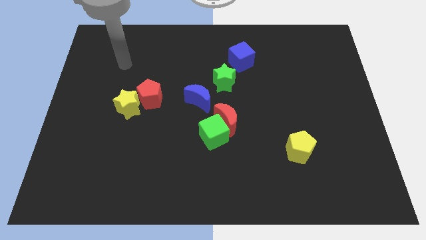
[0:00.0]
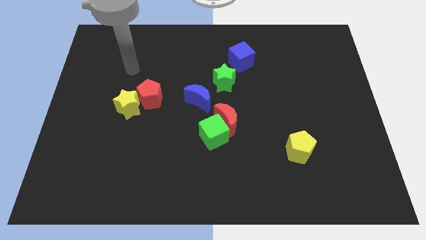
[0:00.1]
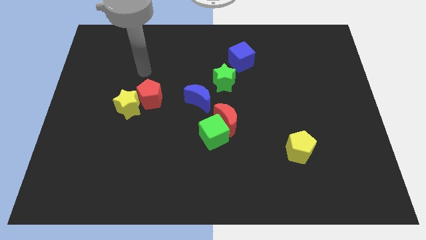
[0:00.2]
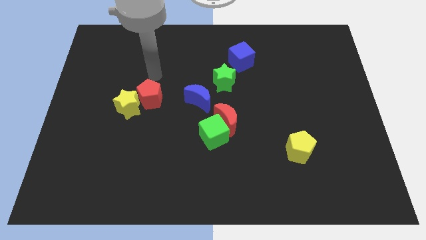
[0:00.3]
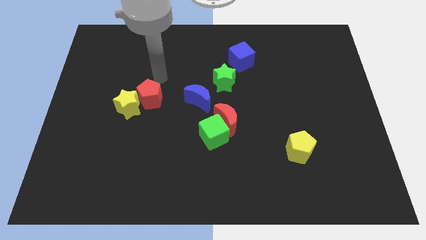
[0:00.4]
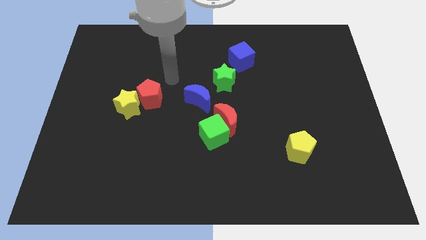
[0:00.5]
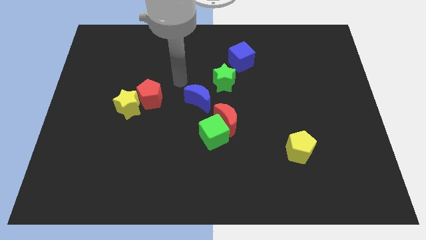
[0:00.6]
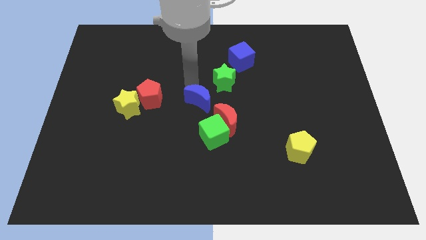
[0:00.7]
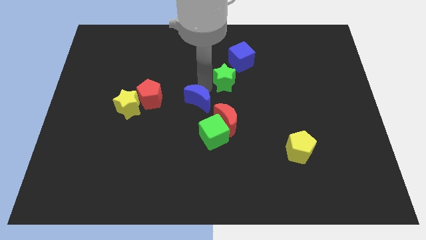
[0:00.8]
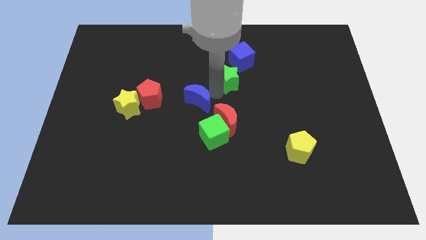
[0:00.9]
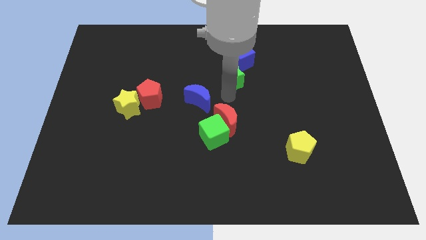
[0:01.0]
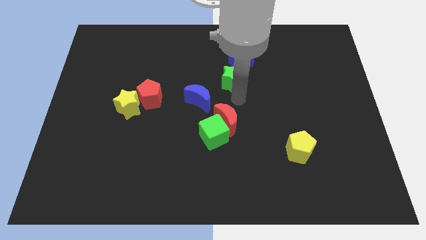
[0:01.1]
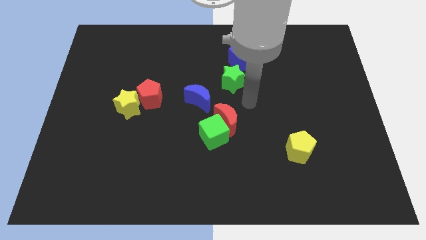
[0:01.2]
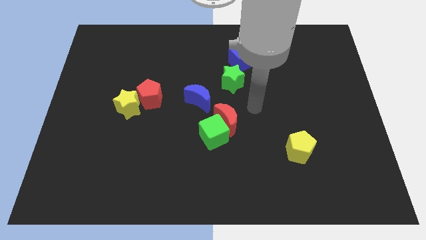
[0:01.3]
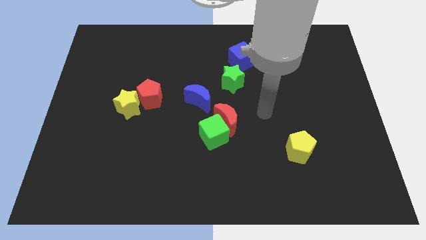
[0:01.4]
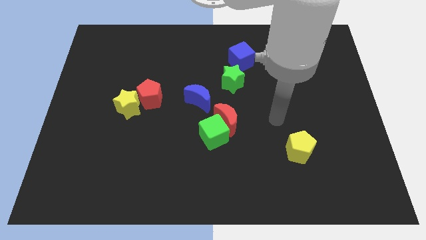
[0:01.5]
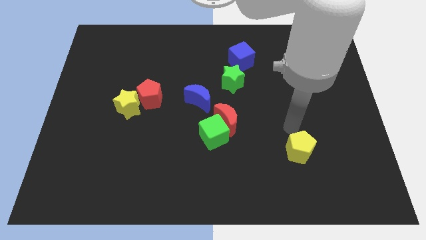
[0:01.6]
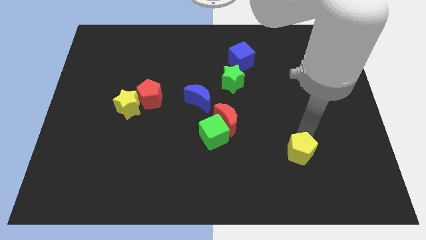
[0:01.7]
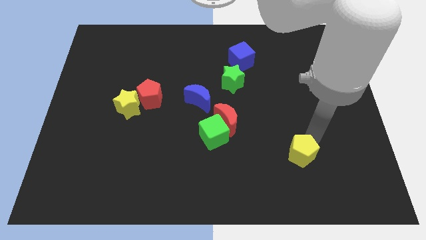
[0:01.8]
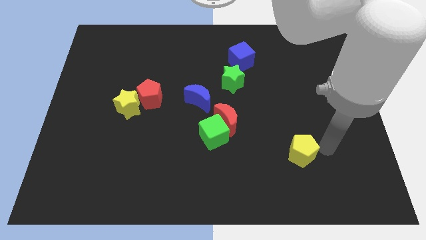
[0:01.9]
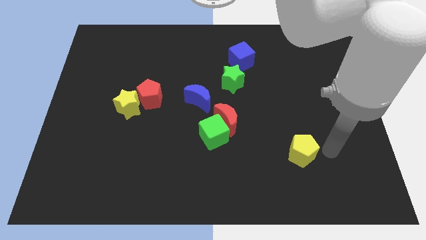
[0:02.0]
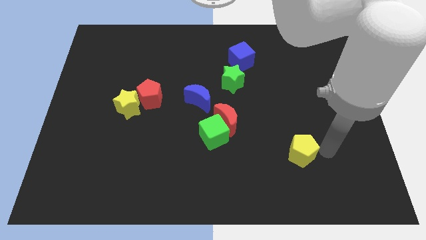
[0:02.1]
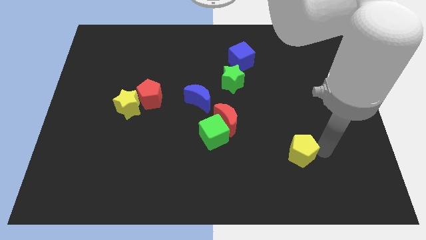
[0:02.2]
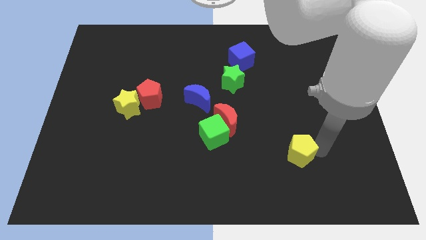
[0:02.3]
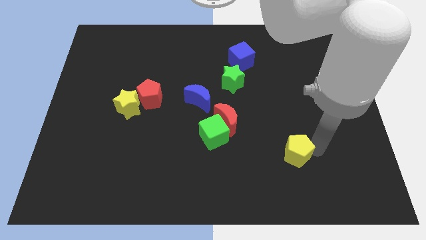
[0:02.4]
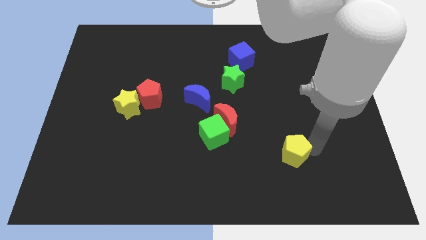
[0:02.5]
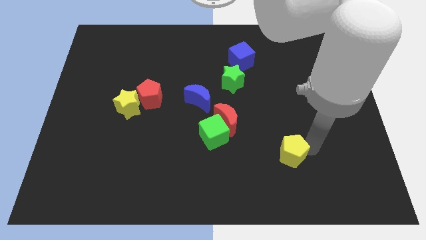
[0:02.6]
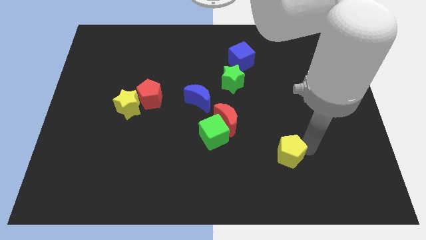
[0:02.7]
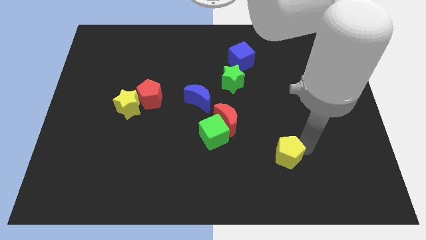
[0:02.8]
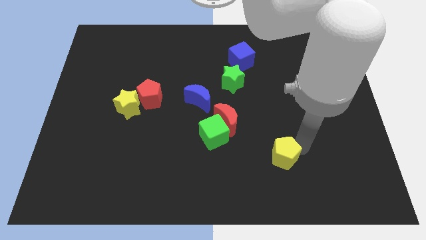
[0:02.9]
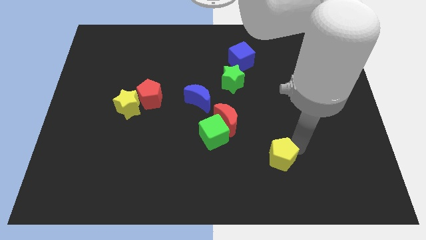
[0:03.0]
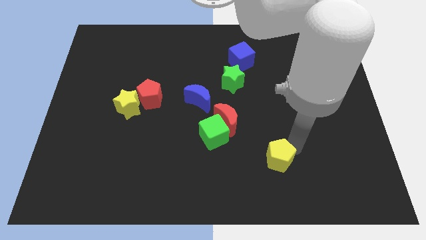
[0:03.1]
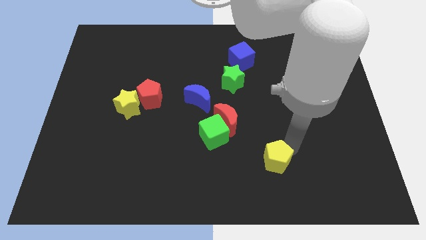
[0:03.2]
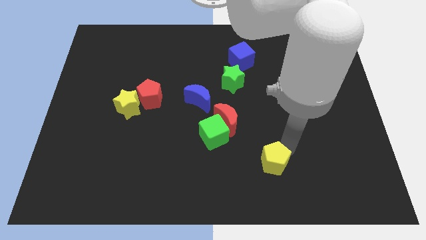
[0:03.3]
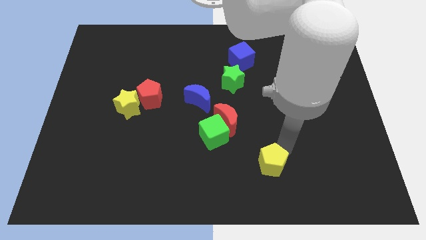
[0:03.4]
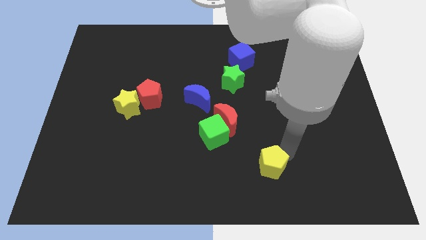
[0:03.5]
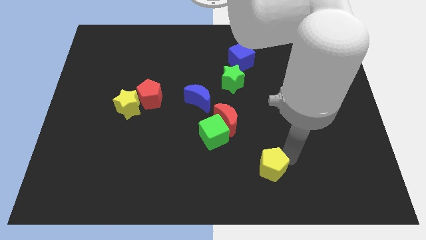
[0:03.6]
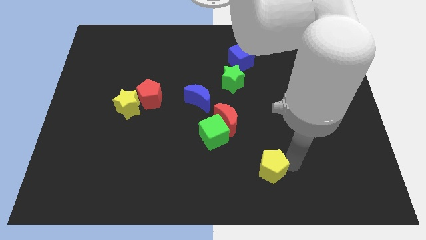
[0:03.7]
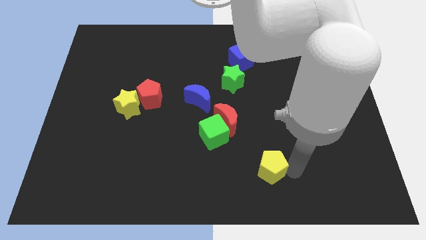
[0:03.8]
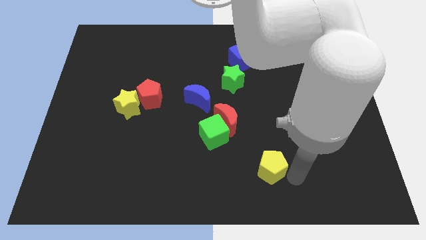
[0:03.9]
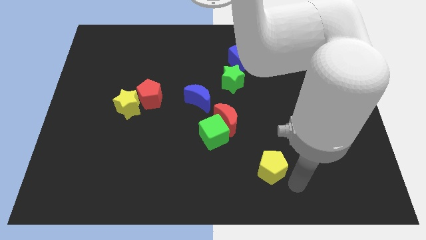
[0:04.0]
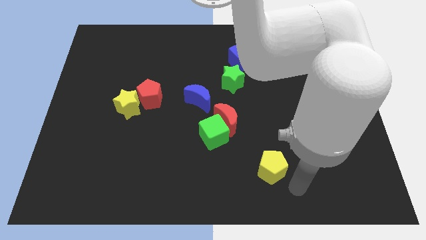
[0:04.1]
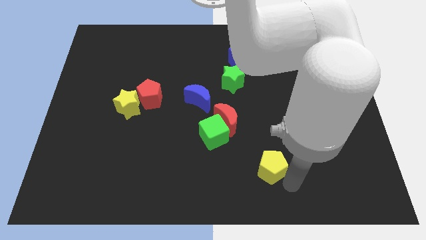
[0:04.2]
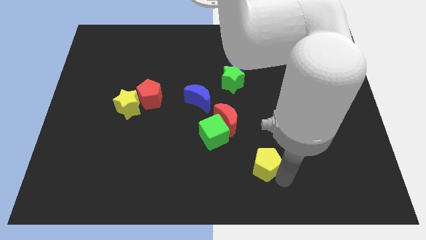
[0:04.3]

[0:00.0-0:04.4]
push the yellow pentagon slightly to the left

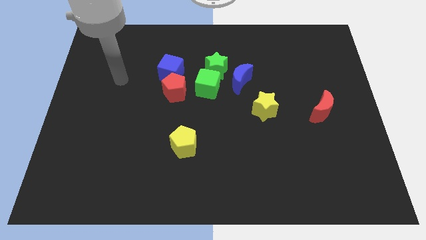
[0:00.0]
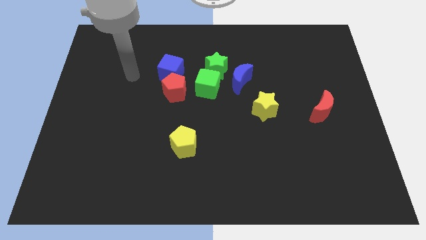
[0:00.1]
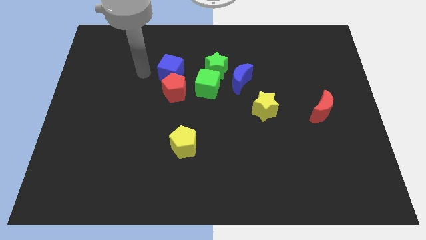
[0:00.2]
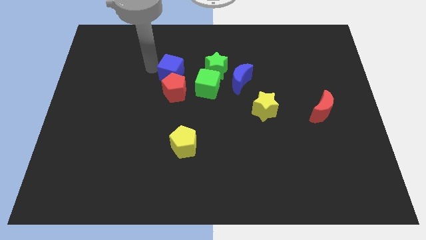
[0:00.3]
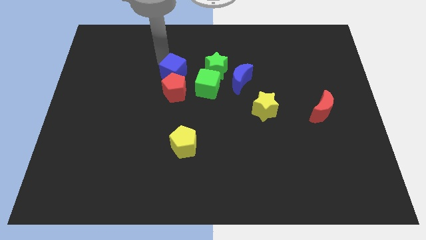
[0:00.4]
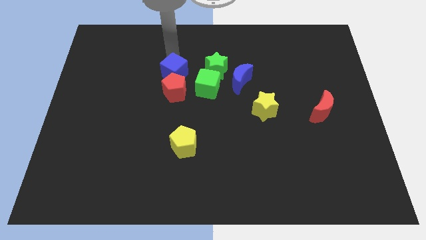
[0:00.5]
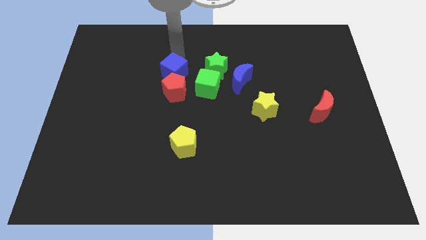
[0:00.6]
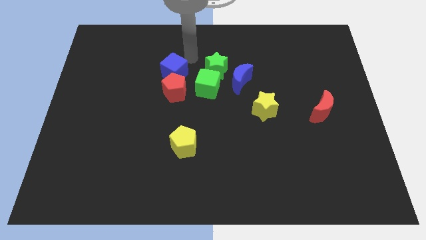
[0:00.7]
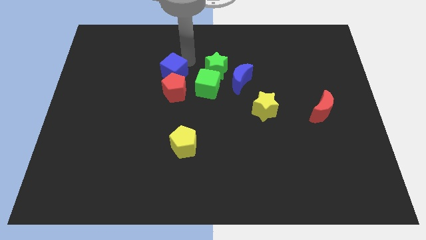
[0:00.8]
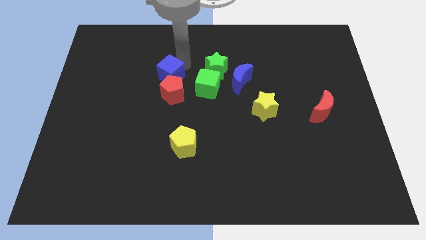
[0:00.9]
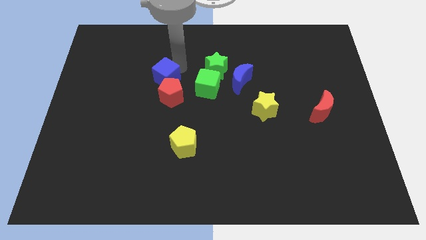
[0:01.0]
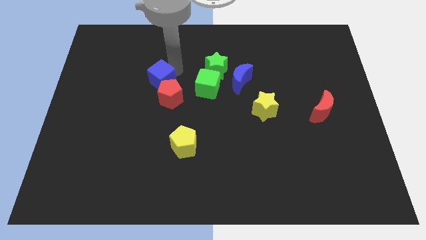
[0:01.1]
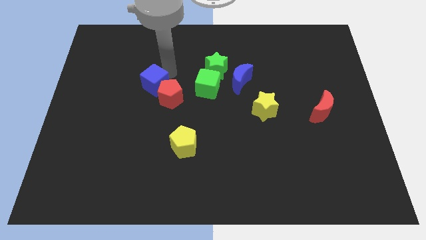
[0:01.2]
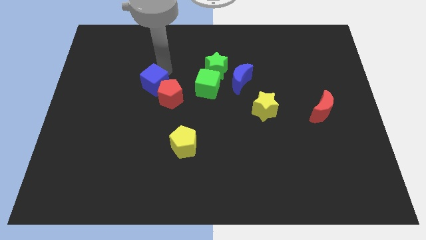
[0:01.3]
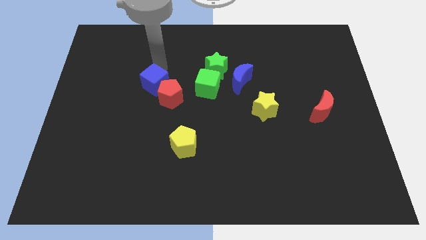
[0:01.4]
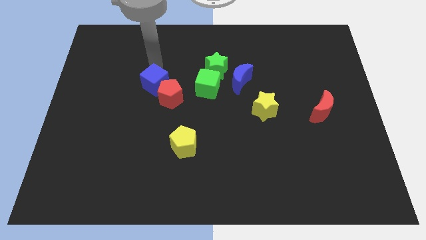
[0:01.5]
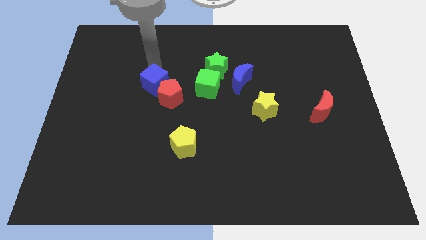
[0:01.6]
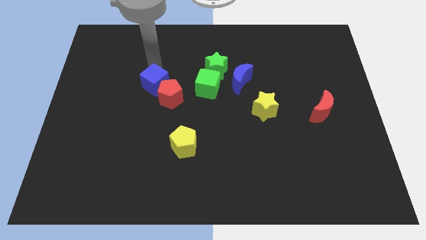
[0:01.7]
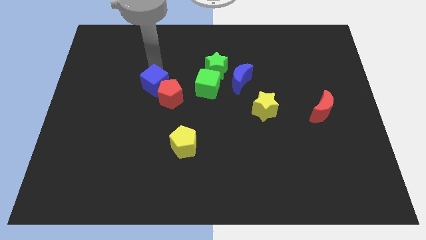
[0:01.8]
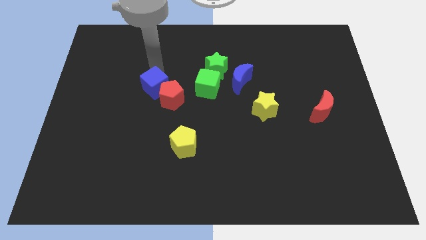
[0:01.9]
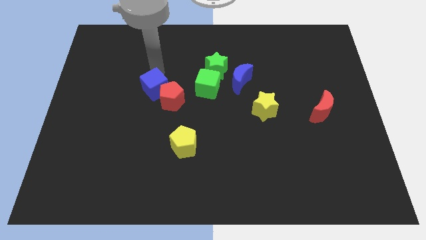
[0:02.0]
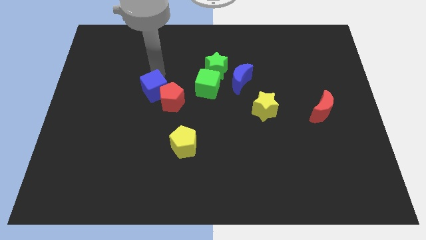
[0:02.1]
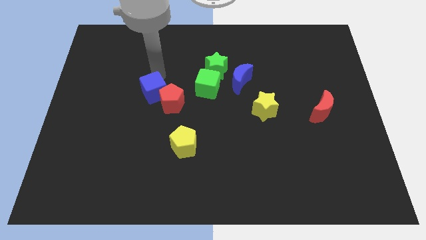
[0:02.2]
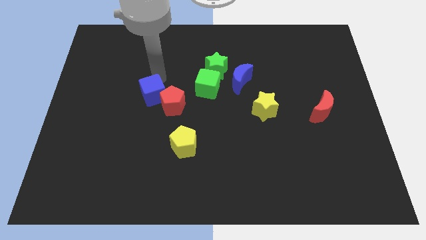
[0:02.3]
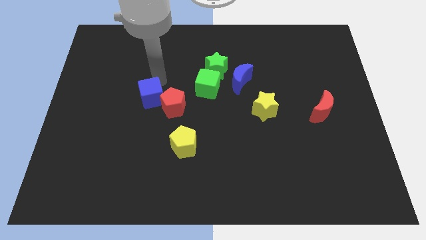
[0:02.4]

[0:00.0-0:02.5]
move the blue cube a little bit downwards

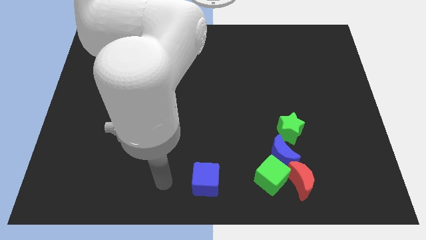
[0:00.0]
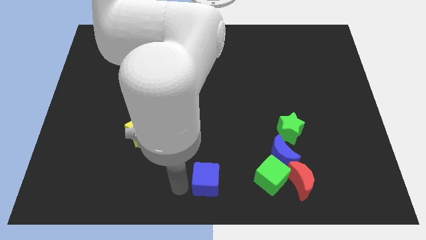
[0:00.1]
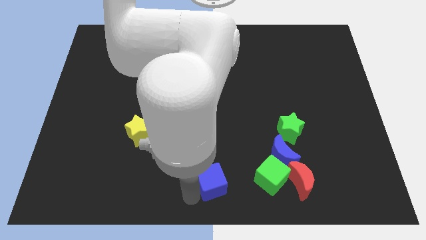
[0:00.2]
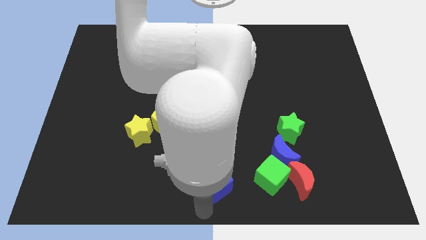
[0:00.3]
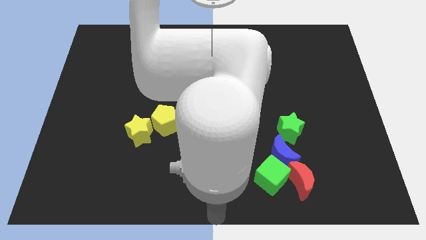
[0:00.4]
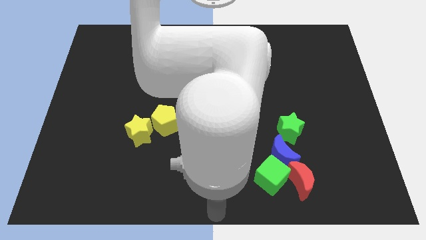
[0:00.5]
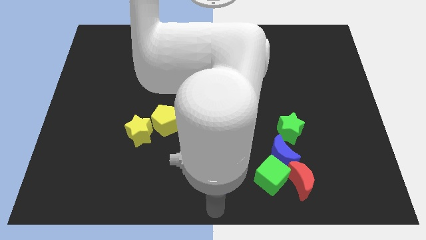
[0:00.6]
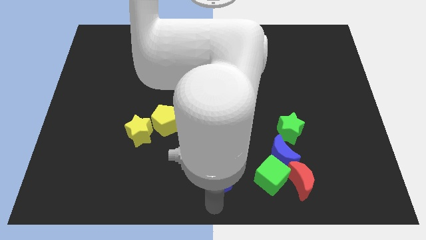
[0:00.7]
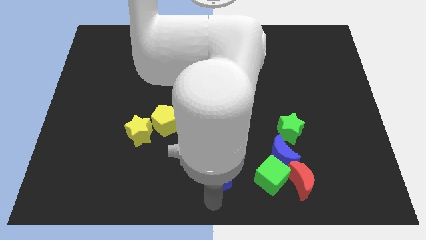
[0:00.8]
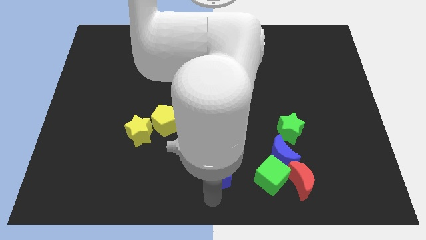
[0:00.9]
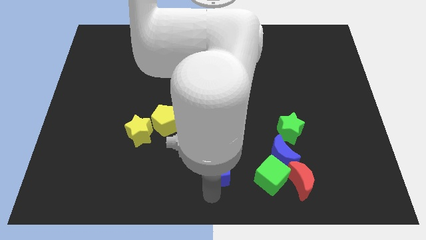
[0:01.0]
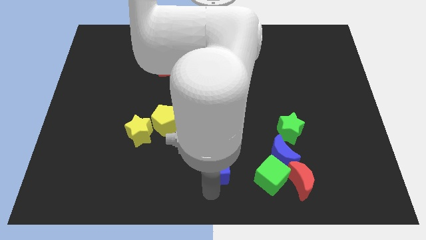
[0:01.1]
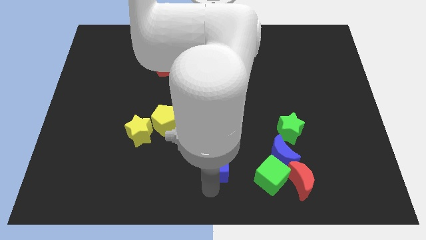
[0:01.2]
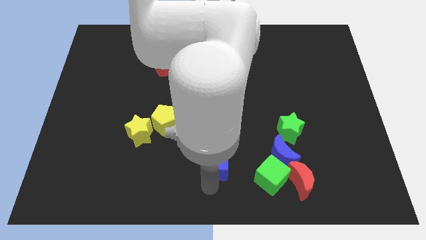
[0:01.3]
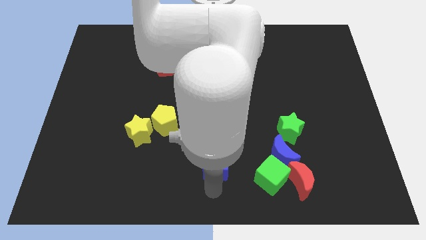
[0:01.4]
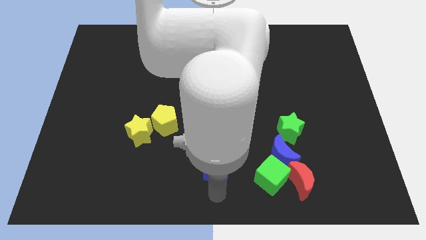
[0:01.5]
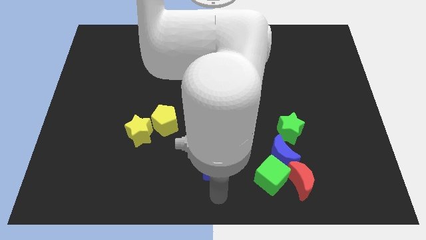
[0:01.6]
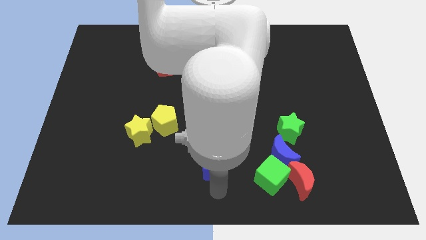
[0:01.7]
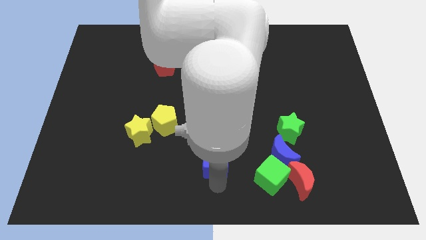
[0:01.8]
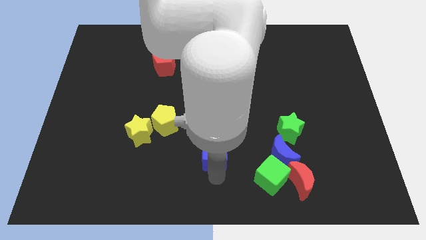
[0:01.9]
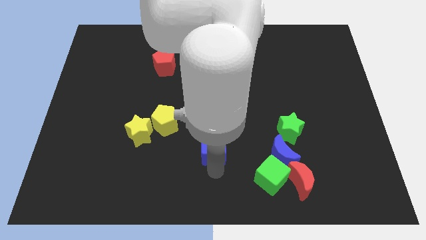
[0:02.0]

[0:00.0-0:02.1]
slightly slide the blue cube up
